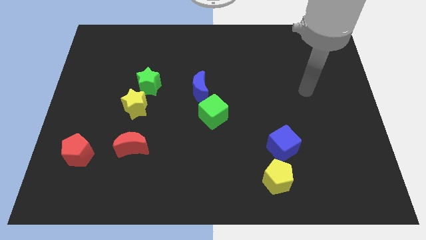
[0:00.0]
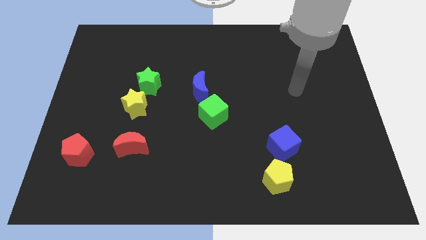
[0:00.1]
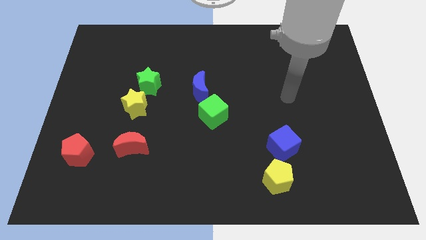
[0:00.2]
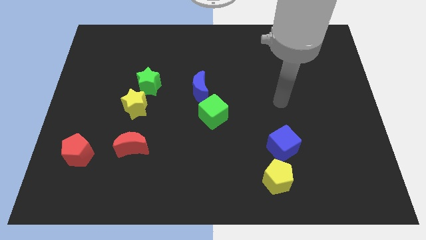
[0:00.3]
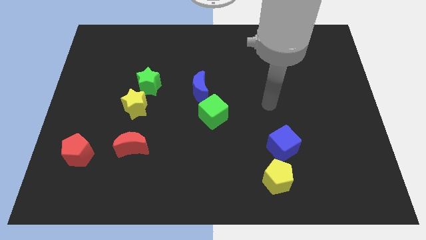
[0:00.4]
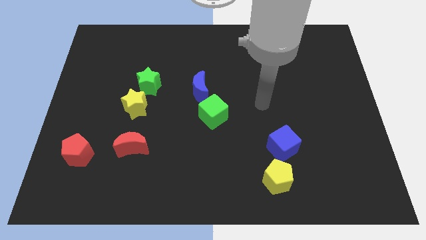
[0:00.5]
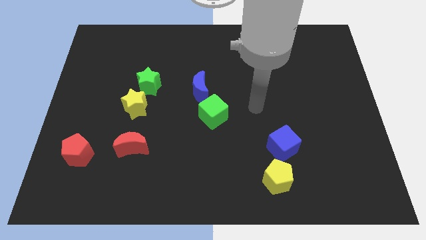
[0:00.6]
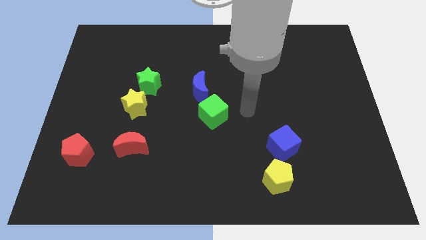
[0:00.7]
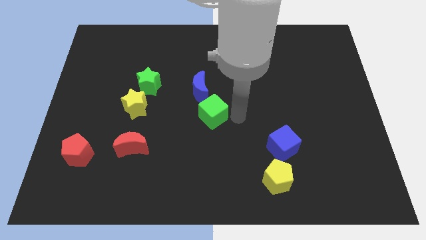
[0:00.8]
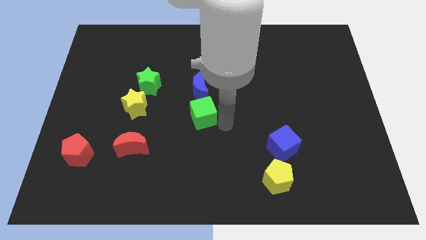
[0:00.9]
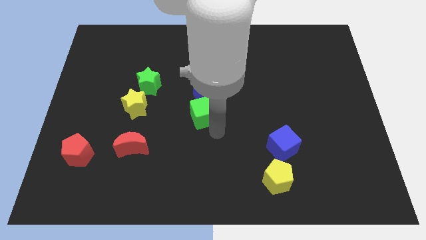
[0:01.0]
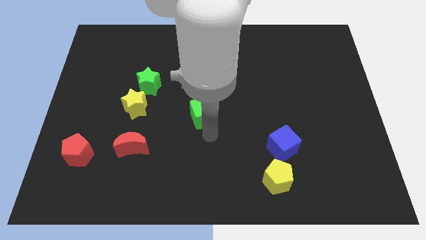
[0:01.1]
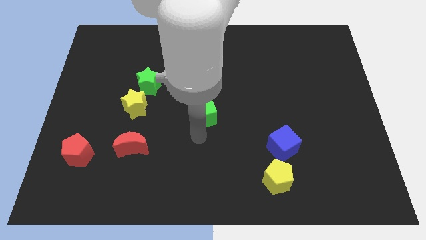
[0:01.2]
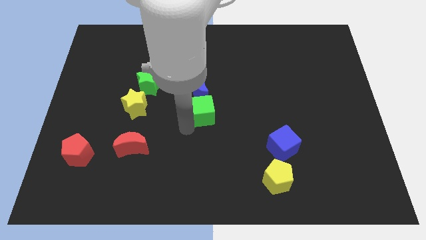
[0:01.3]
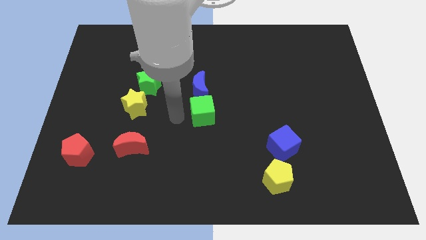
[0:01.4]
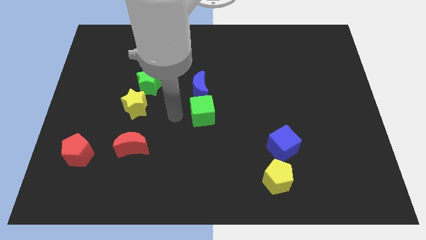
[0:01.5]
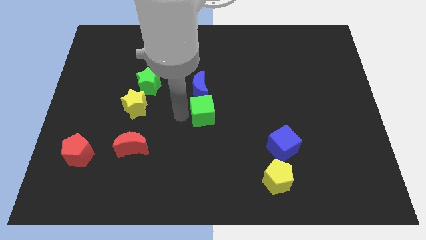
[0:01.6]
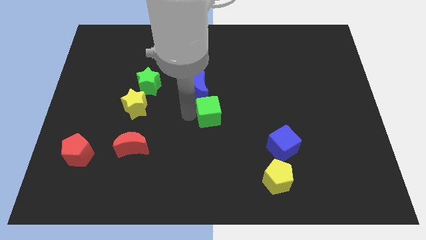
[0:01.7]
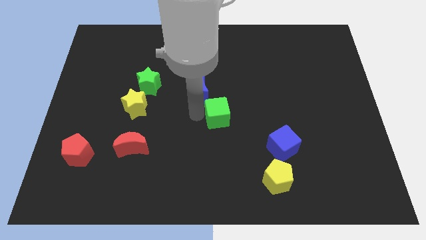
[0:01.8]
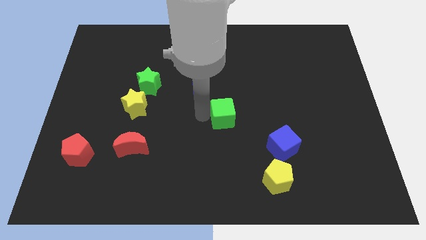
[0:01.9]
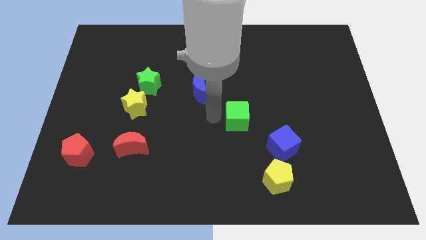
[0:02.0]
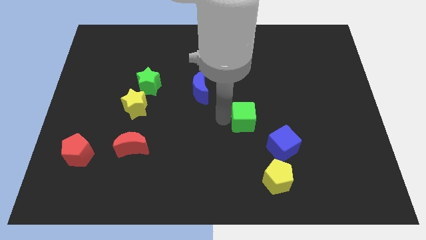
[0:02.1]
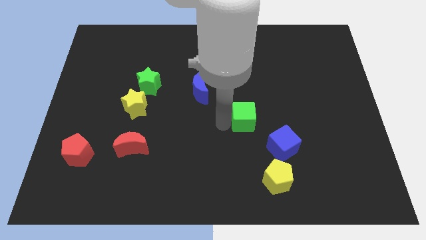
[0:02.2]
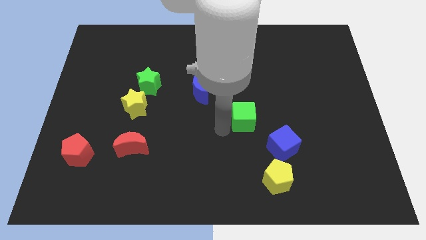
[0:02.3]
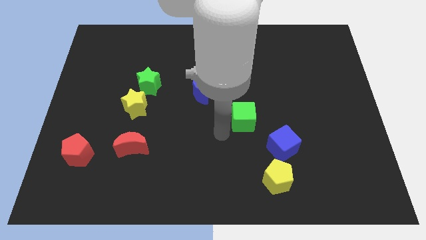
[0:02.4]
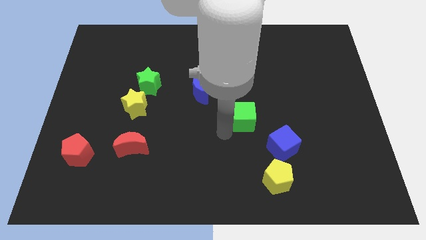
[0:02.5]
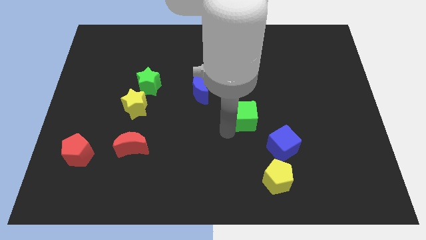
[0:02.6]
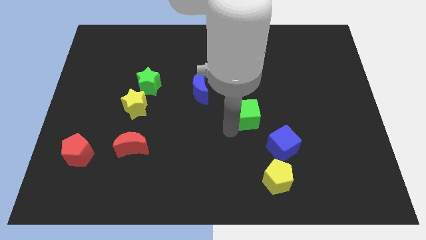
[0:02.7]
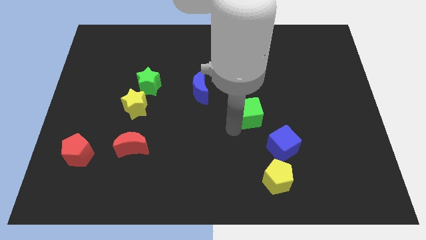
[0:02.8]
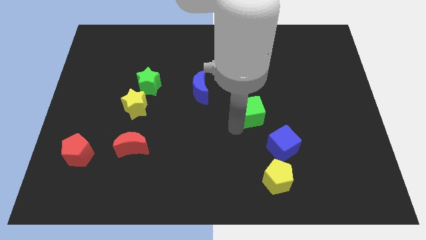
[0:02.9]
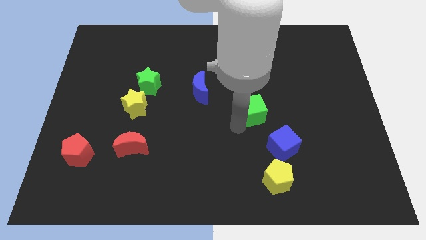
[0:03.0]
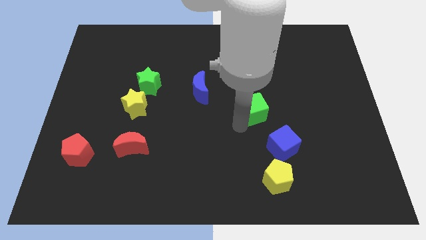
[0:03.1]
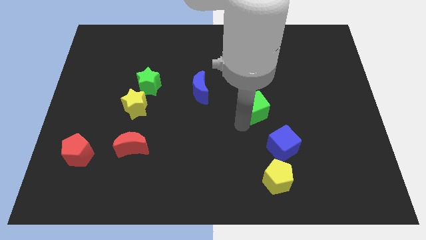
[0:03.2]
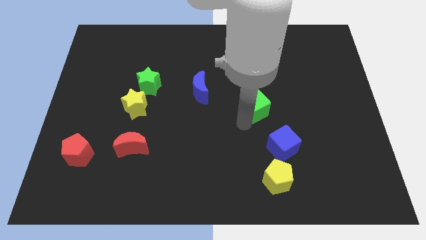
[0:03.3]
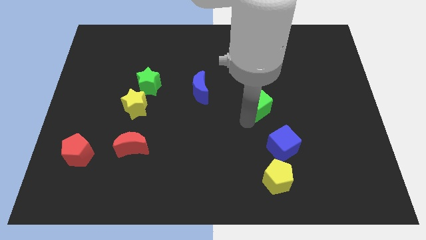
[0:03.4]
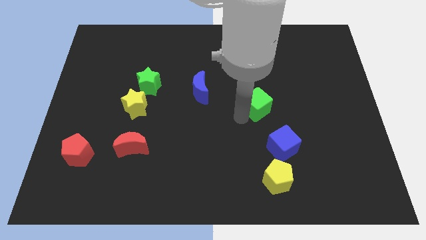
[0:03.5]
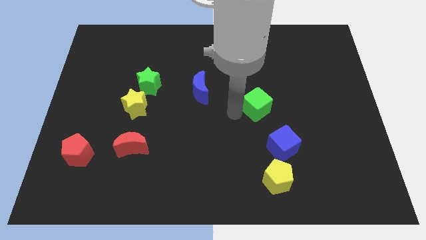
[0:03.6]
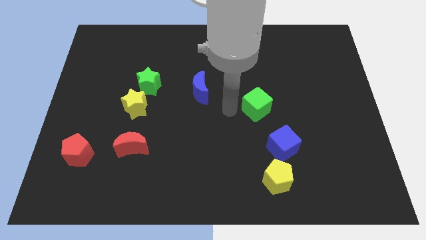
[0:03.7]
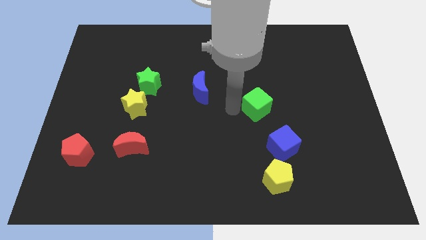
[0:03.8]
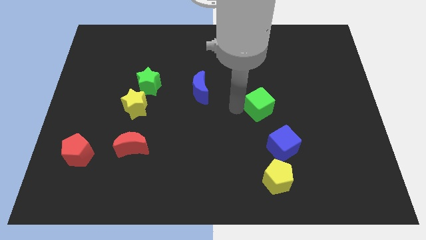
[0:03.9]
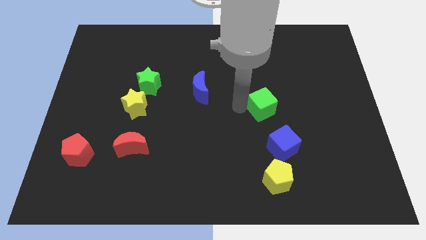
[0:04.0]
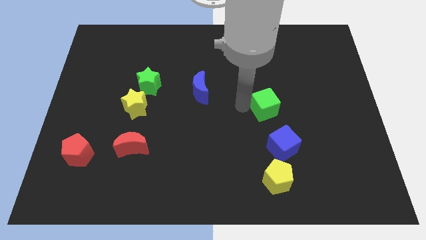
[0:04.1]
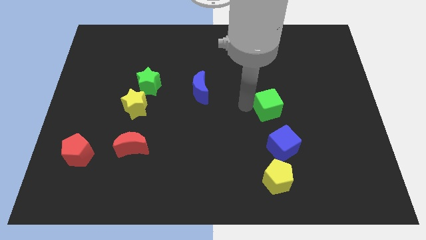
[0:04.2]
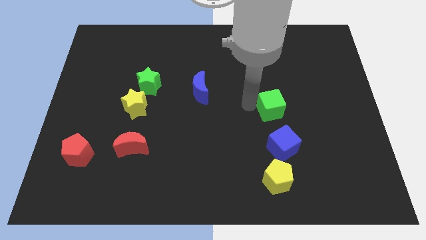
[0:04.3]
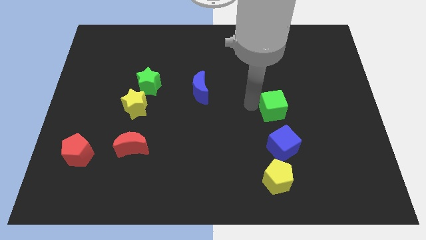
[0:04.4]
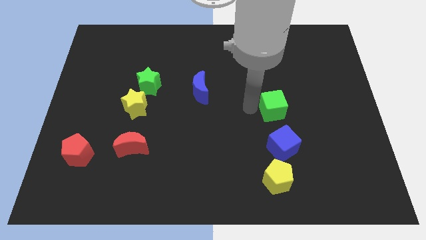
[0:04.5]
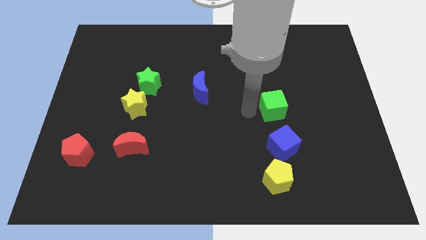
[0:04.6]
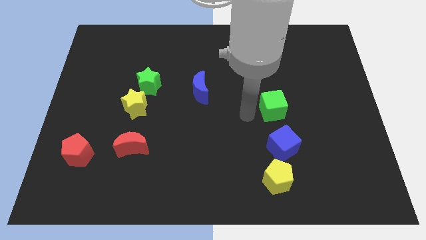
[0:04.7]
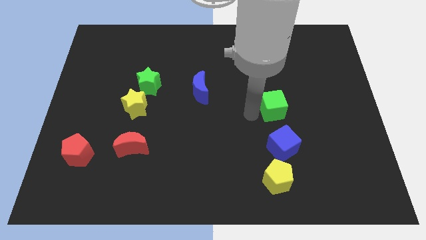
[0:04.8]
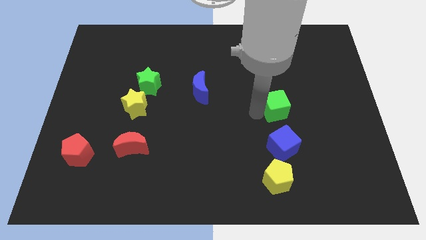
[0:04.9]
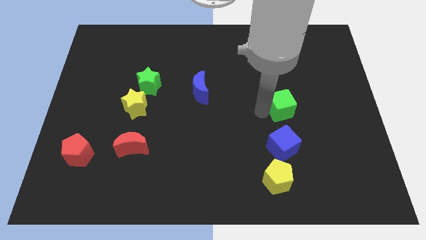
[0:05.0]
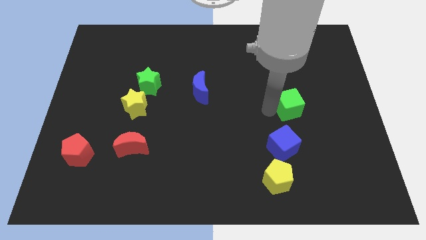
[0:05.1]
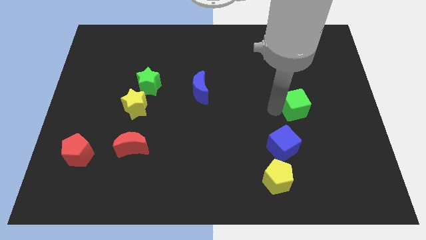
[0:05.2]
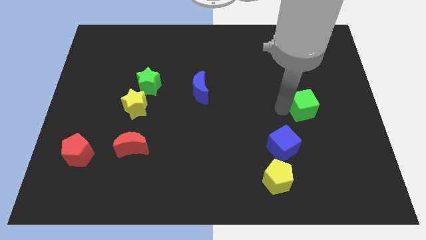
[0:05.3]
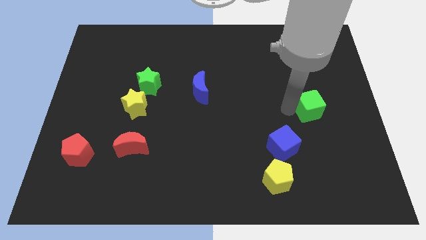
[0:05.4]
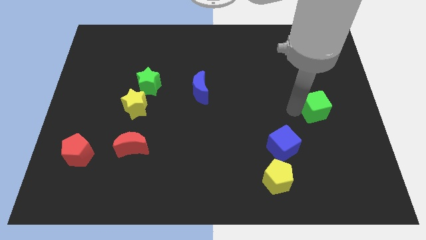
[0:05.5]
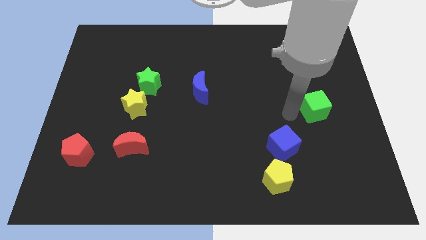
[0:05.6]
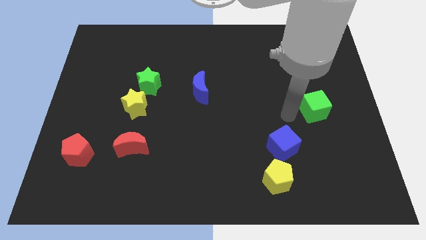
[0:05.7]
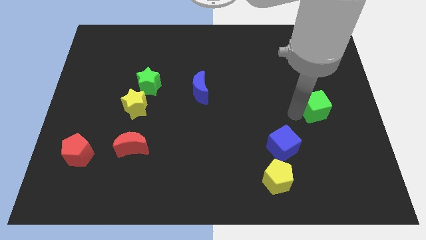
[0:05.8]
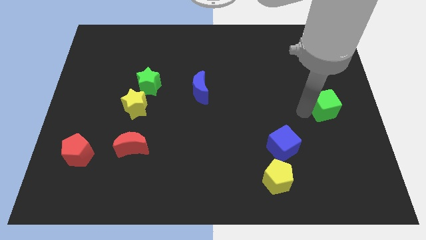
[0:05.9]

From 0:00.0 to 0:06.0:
move the green cube to the center right
